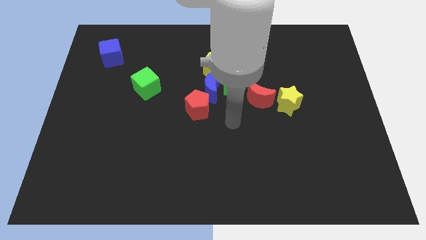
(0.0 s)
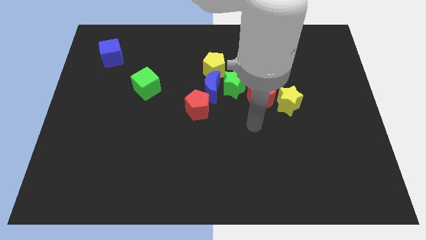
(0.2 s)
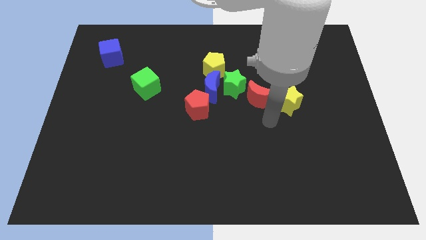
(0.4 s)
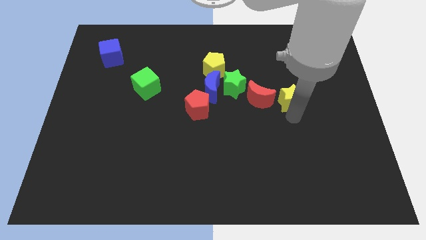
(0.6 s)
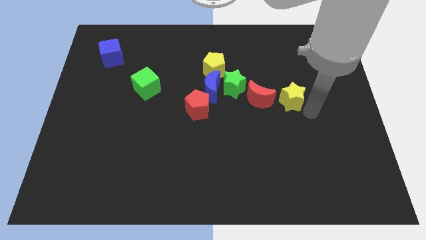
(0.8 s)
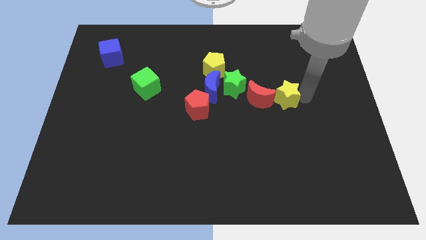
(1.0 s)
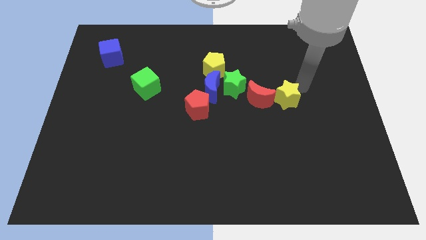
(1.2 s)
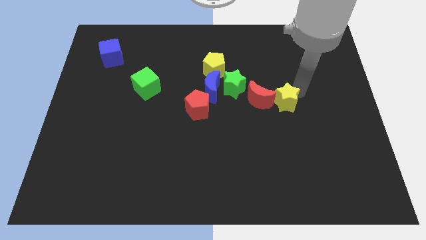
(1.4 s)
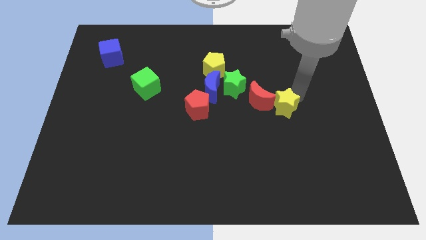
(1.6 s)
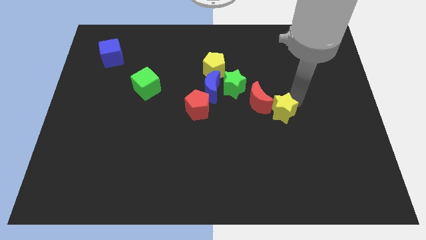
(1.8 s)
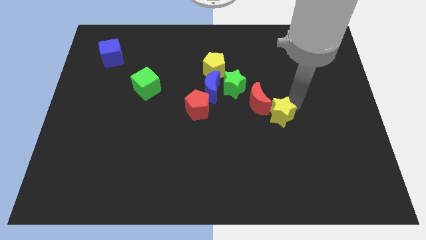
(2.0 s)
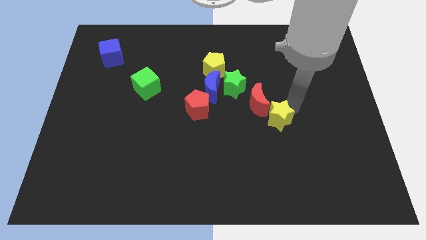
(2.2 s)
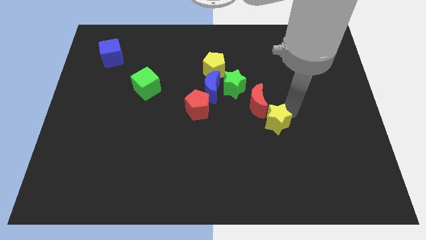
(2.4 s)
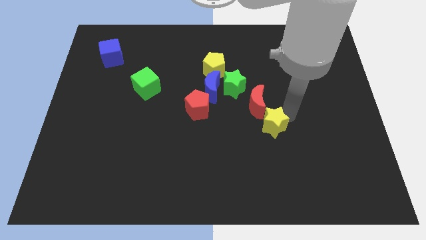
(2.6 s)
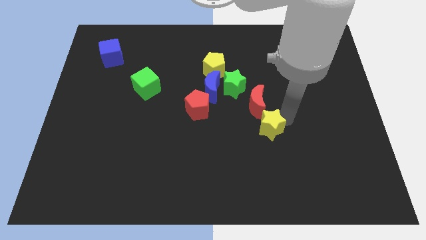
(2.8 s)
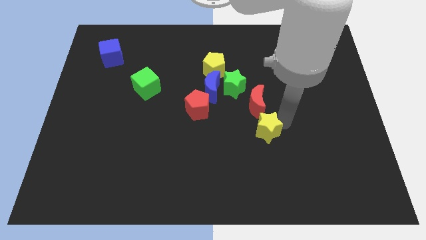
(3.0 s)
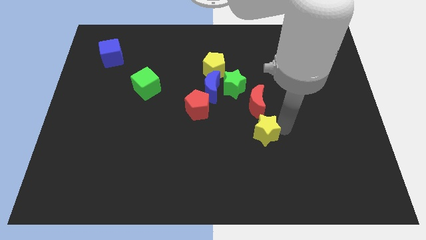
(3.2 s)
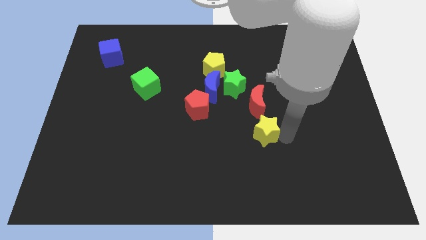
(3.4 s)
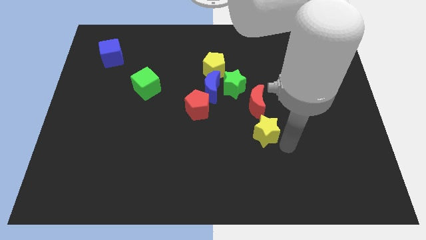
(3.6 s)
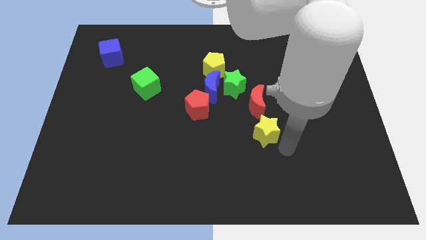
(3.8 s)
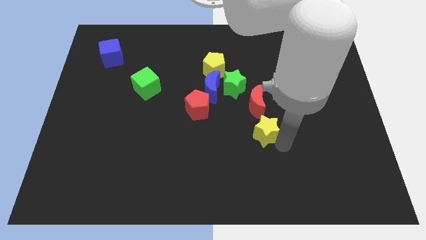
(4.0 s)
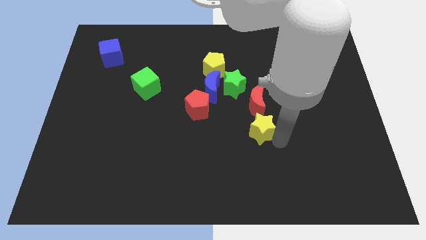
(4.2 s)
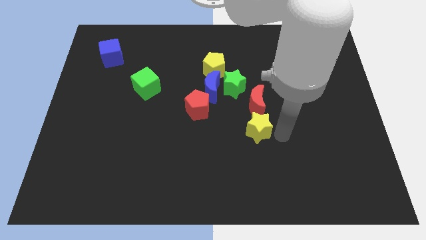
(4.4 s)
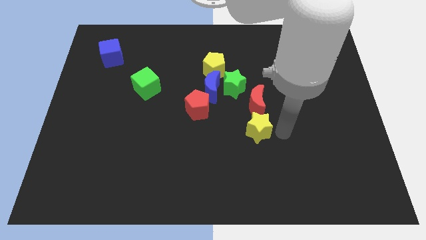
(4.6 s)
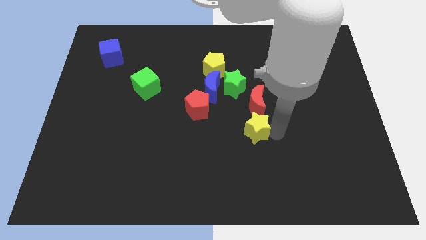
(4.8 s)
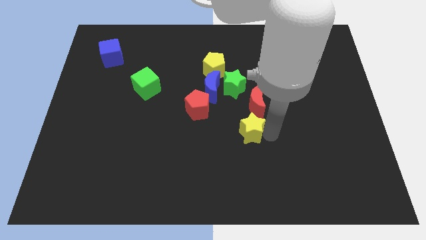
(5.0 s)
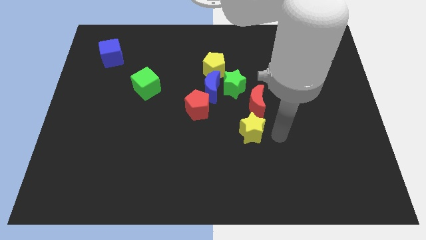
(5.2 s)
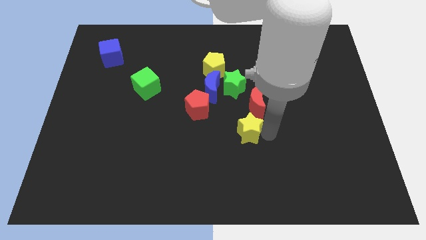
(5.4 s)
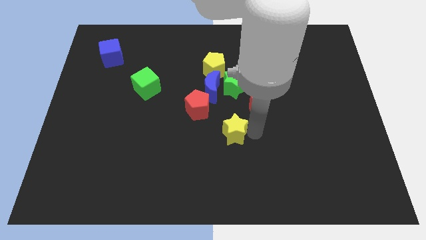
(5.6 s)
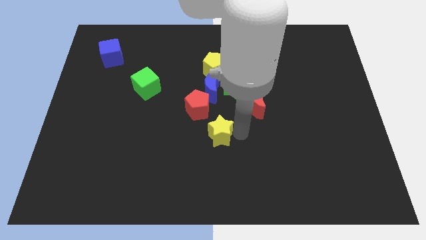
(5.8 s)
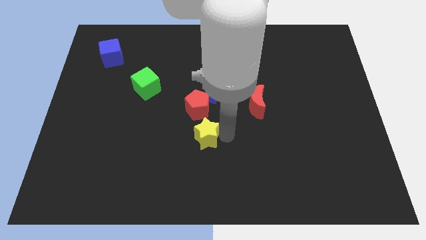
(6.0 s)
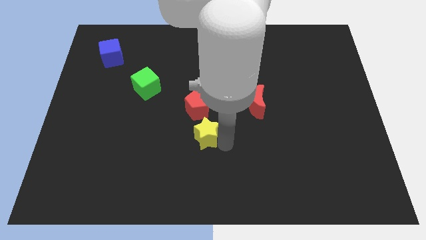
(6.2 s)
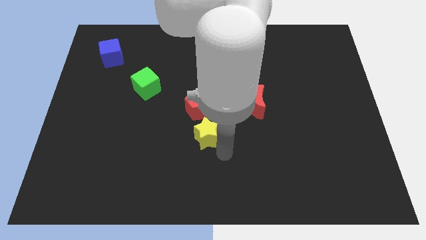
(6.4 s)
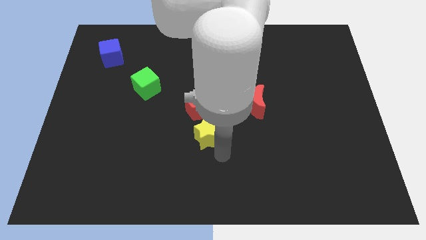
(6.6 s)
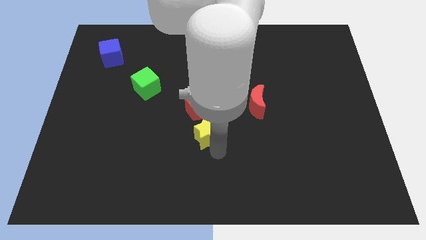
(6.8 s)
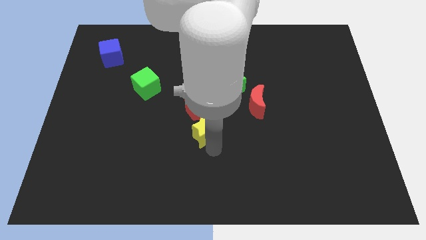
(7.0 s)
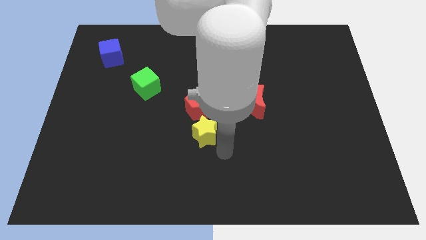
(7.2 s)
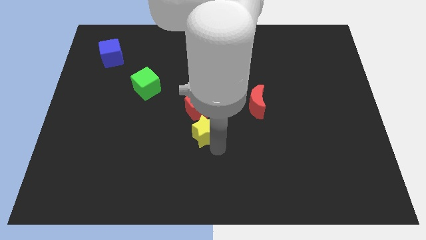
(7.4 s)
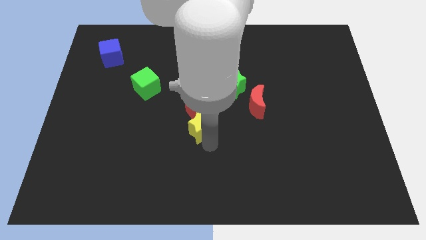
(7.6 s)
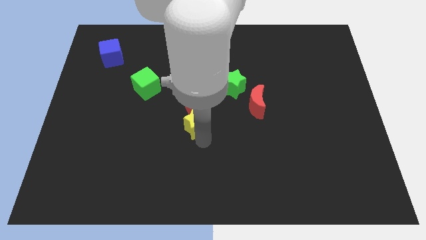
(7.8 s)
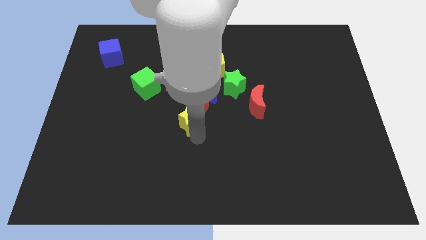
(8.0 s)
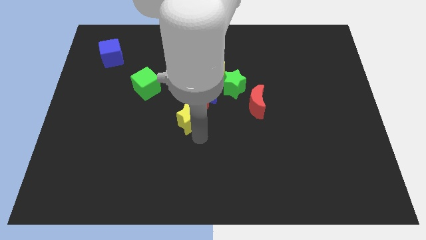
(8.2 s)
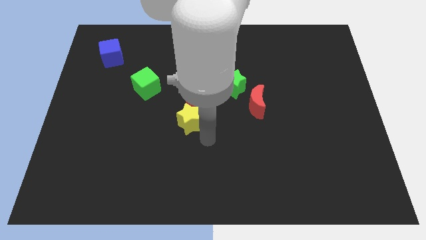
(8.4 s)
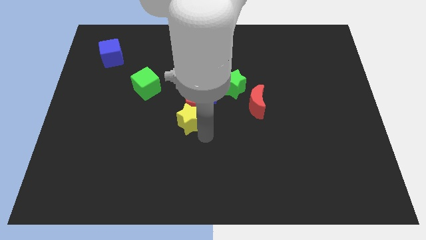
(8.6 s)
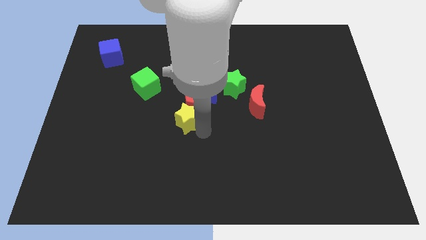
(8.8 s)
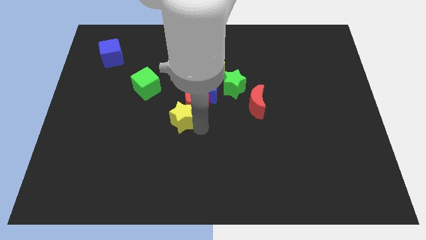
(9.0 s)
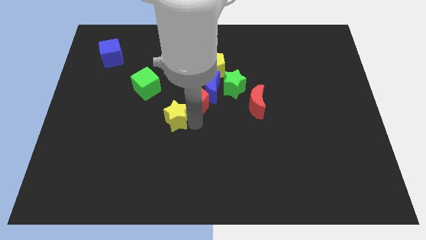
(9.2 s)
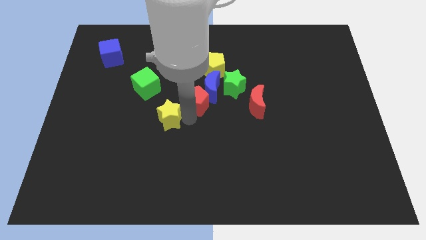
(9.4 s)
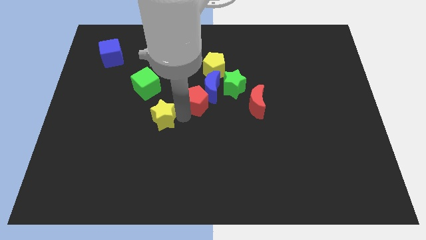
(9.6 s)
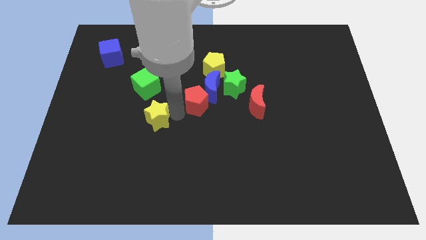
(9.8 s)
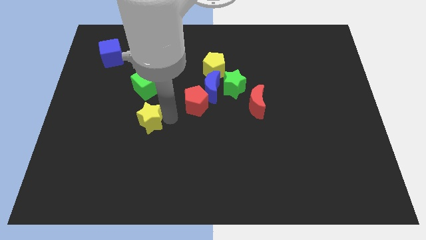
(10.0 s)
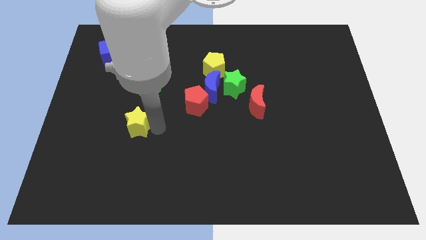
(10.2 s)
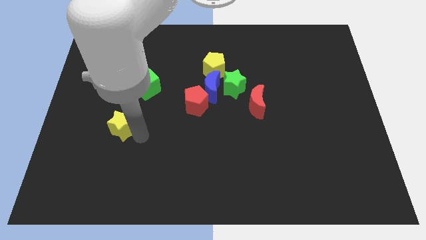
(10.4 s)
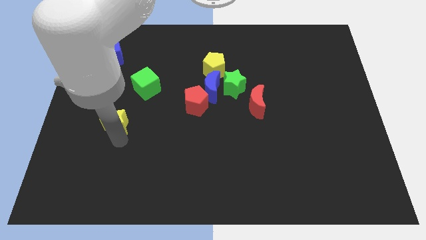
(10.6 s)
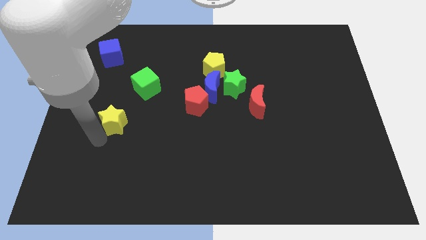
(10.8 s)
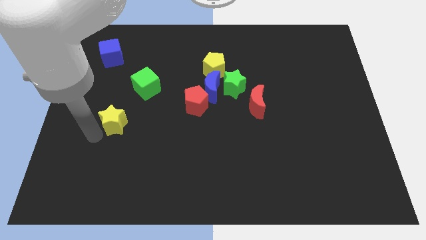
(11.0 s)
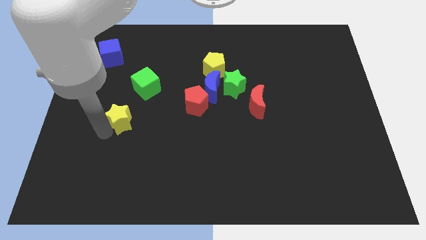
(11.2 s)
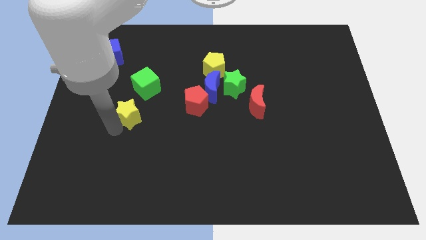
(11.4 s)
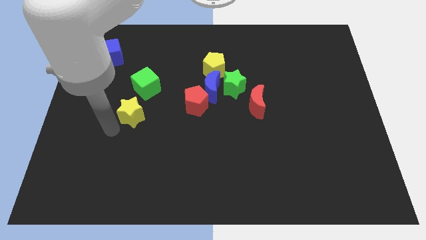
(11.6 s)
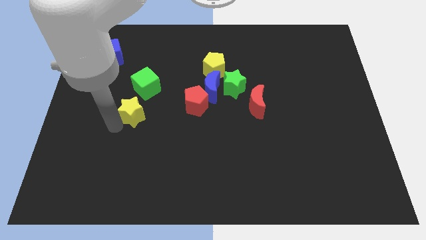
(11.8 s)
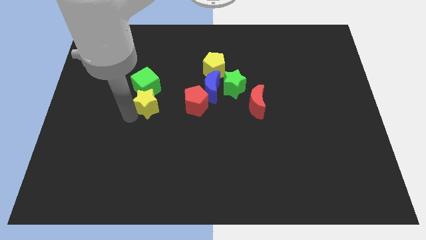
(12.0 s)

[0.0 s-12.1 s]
move the yellow star next to the green cube

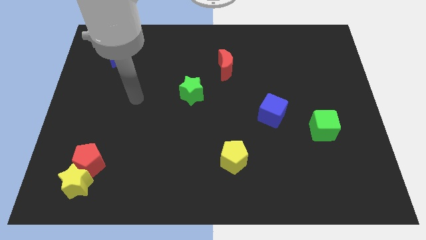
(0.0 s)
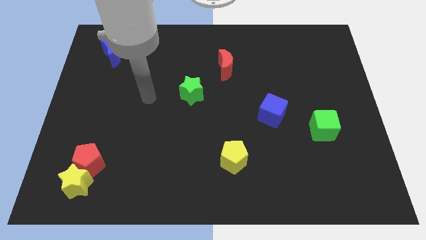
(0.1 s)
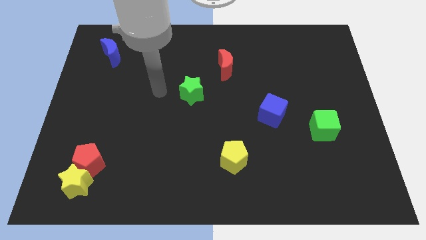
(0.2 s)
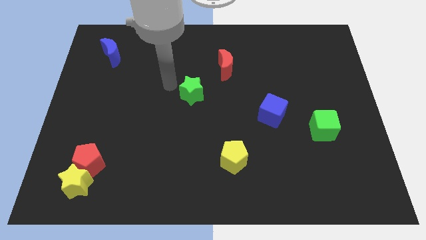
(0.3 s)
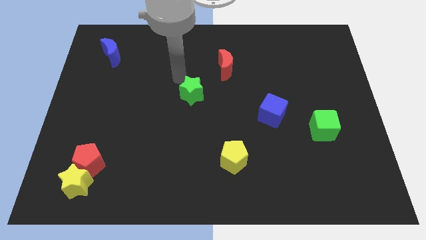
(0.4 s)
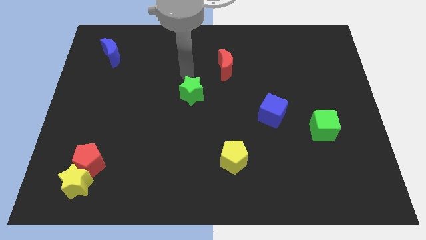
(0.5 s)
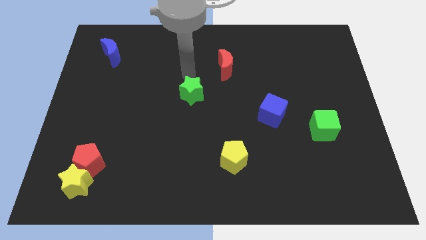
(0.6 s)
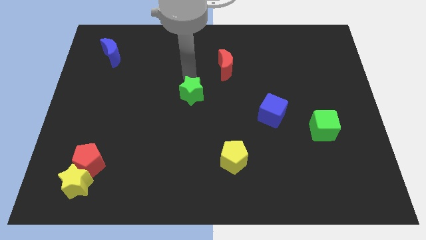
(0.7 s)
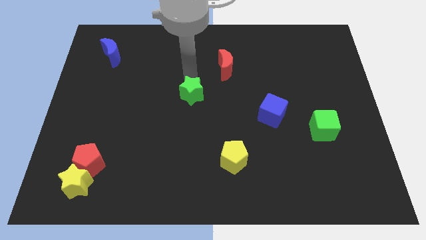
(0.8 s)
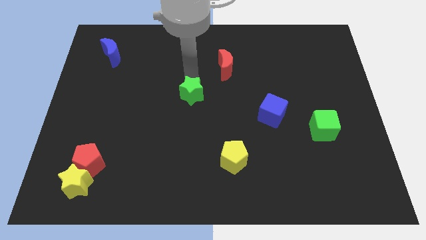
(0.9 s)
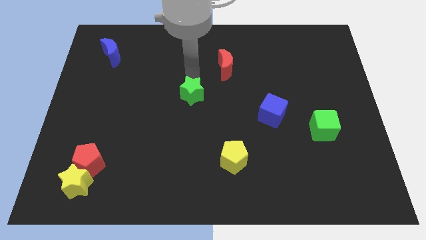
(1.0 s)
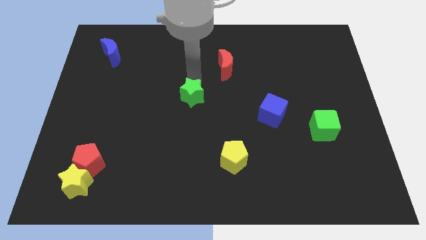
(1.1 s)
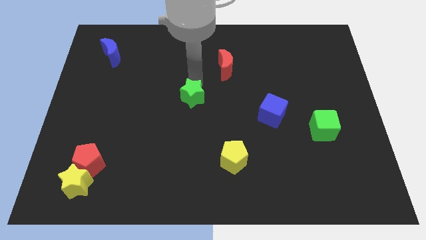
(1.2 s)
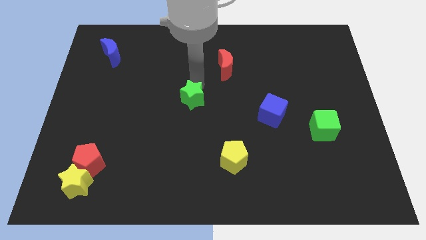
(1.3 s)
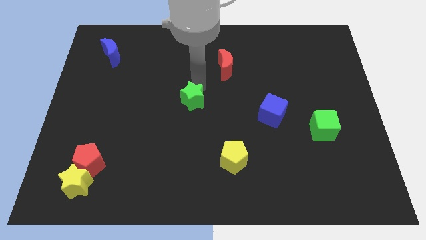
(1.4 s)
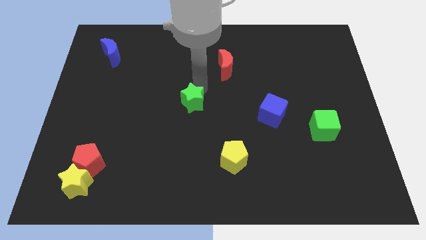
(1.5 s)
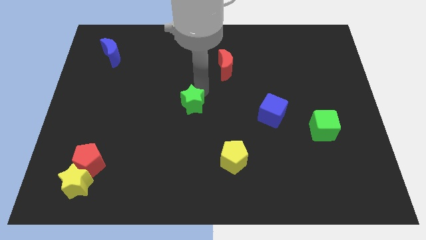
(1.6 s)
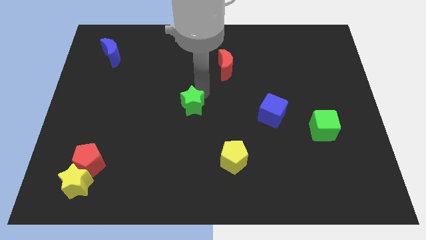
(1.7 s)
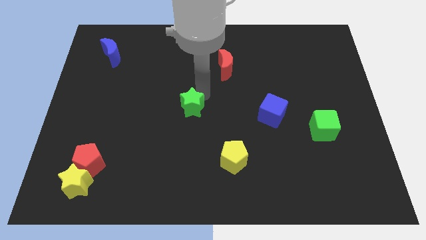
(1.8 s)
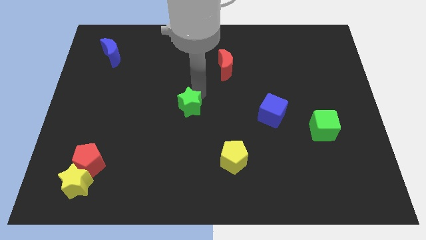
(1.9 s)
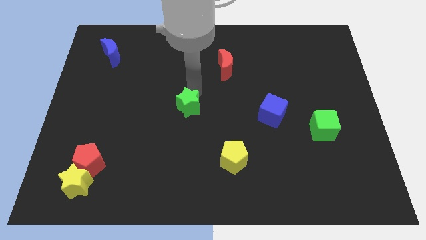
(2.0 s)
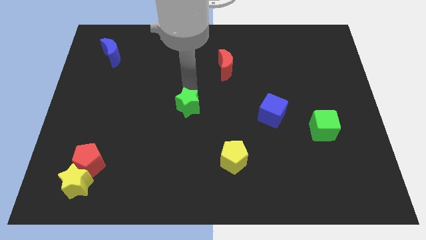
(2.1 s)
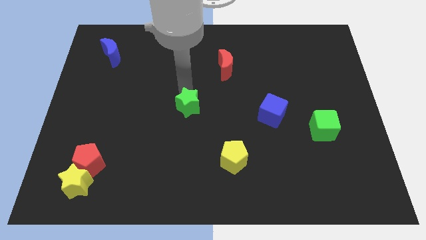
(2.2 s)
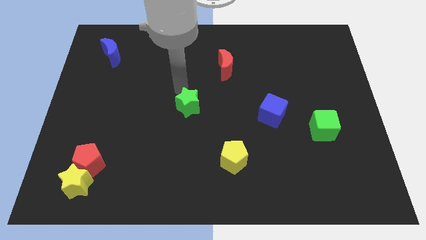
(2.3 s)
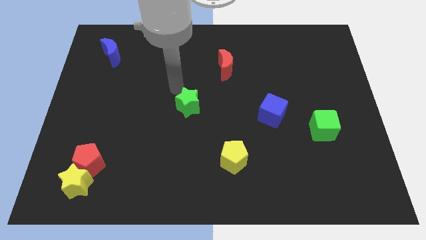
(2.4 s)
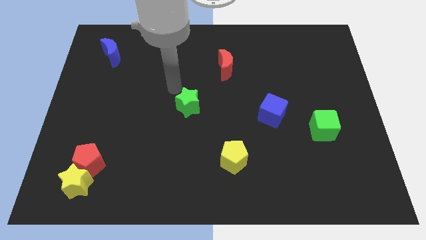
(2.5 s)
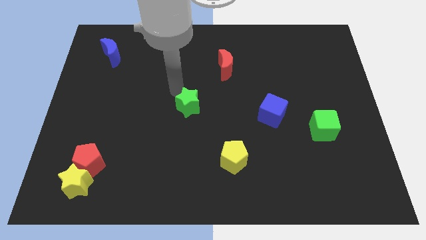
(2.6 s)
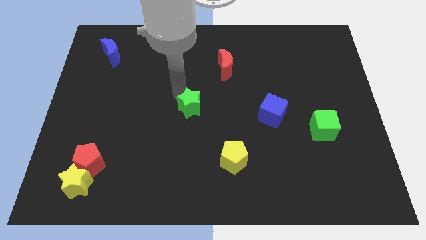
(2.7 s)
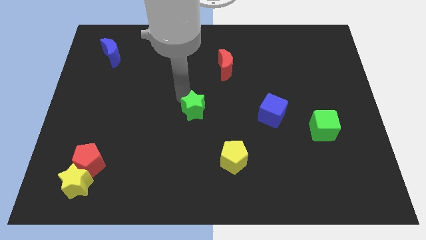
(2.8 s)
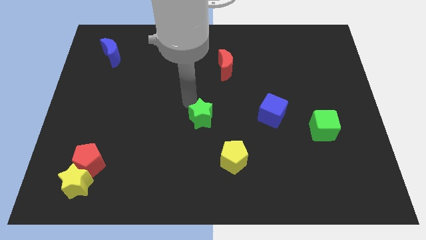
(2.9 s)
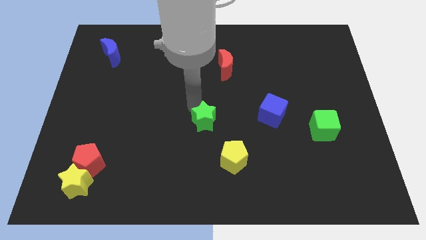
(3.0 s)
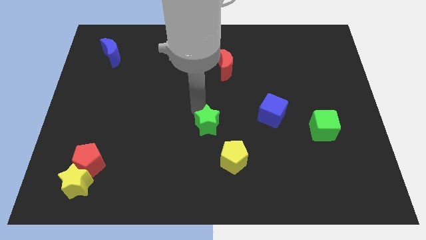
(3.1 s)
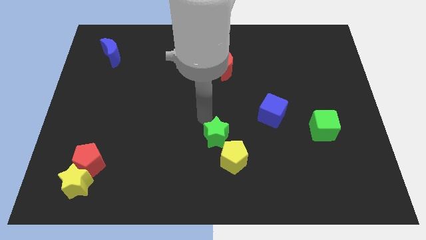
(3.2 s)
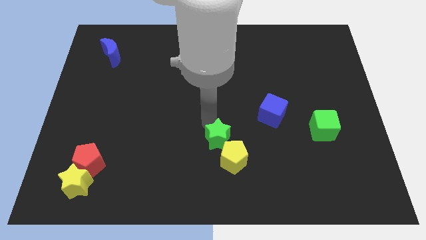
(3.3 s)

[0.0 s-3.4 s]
put the green star next to the yellow pentagon
